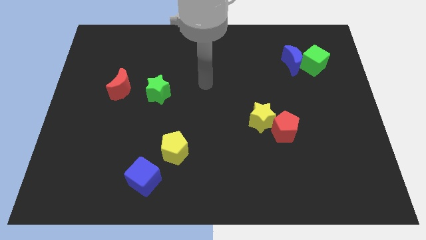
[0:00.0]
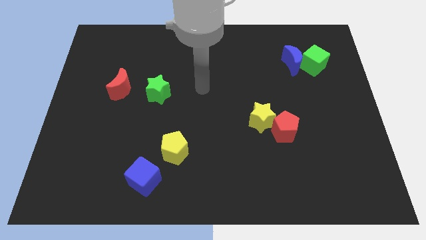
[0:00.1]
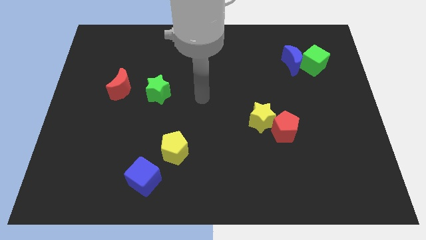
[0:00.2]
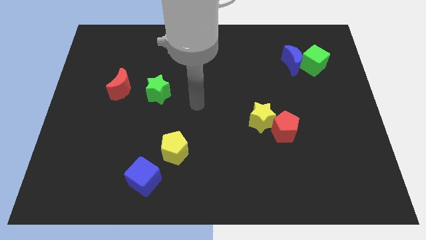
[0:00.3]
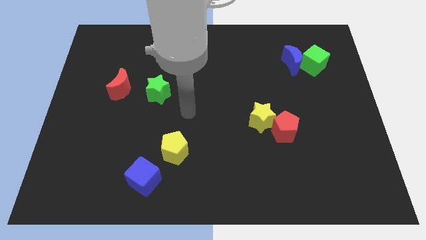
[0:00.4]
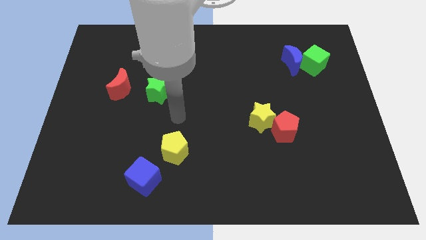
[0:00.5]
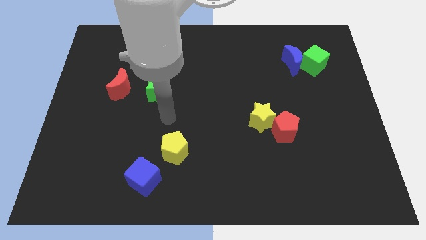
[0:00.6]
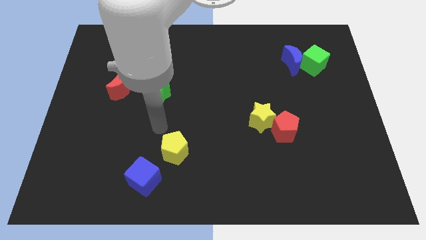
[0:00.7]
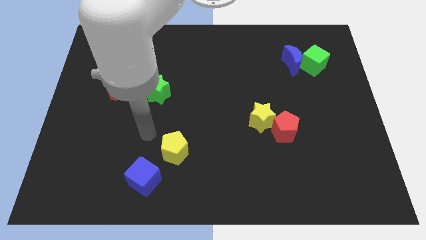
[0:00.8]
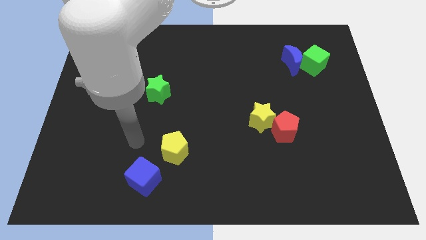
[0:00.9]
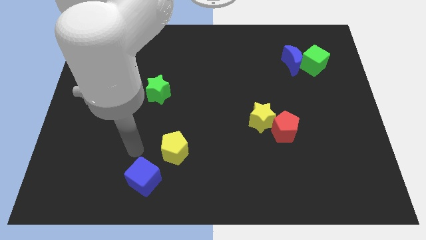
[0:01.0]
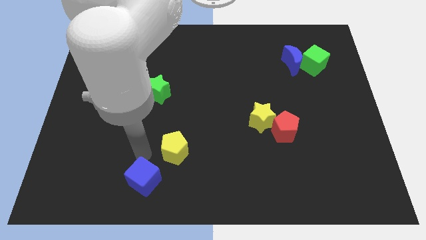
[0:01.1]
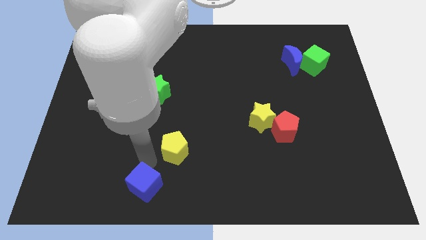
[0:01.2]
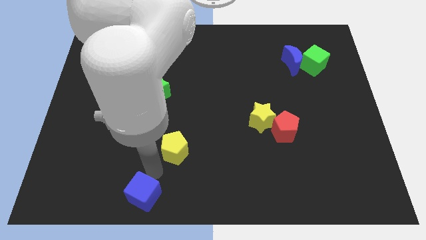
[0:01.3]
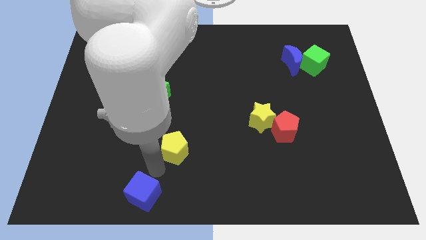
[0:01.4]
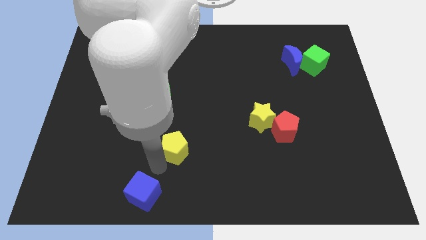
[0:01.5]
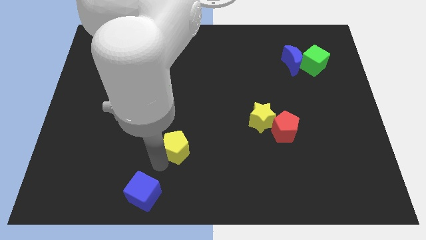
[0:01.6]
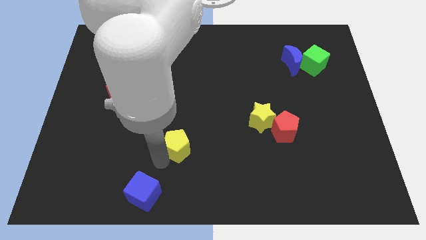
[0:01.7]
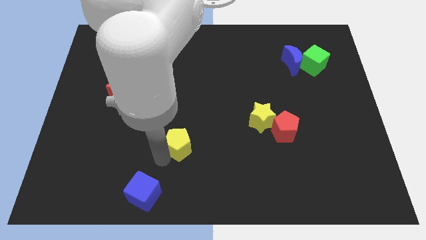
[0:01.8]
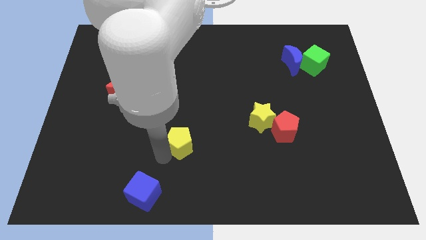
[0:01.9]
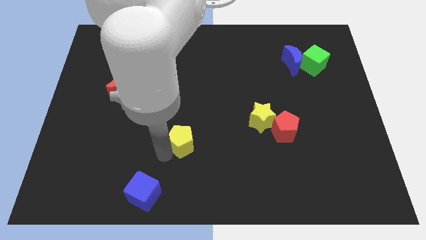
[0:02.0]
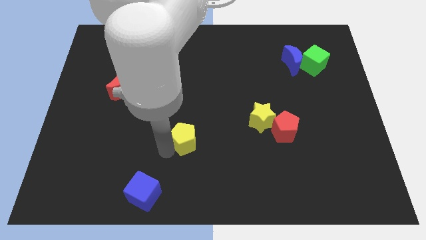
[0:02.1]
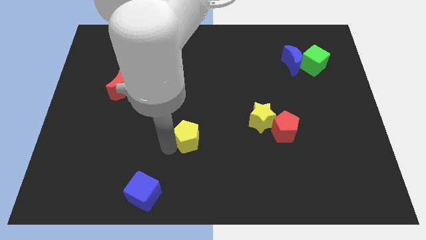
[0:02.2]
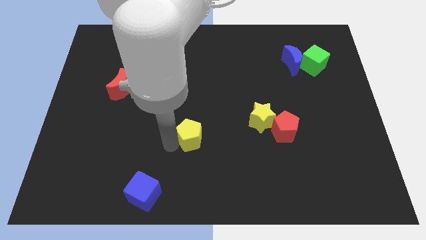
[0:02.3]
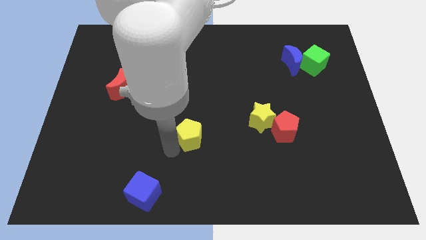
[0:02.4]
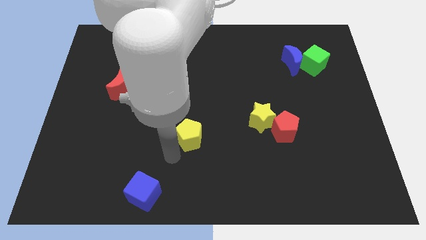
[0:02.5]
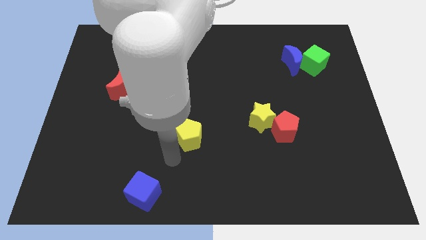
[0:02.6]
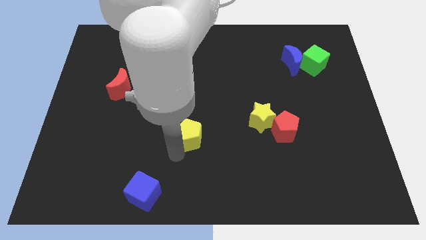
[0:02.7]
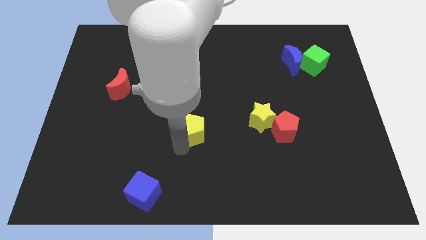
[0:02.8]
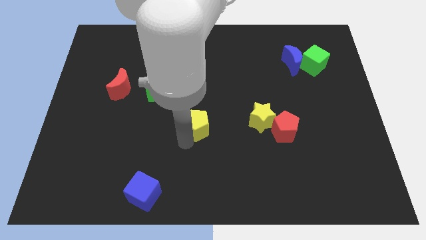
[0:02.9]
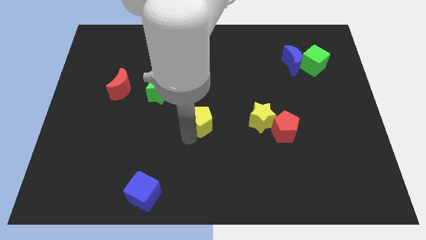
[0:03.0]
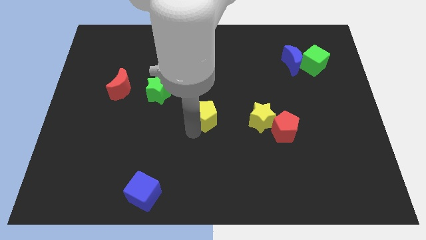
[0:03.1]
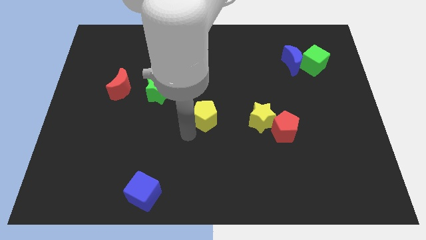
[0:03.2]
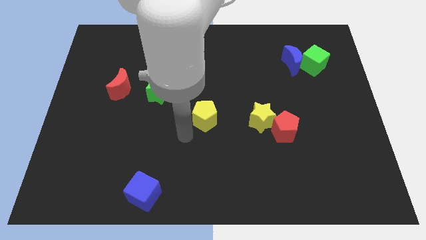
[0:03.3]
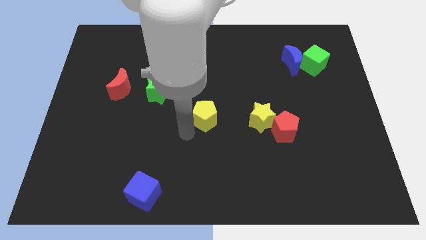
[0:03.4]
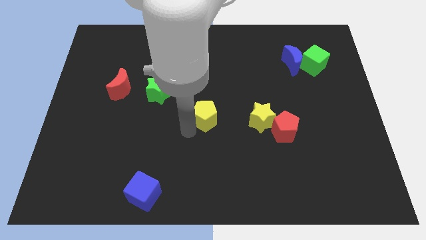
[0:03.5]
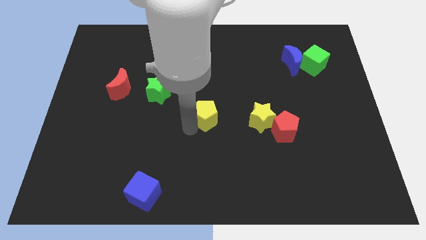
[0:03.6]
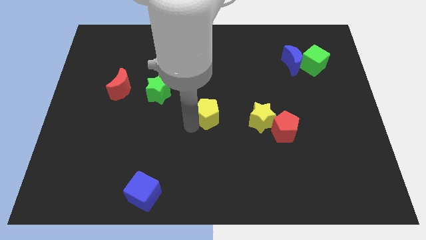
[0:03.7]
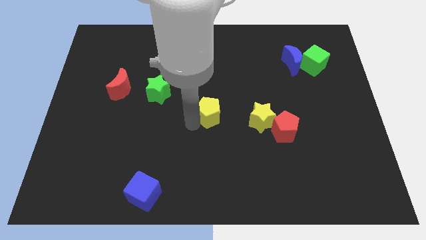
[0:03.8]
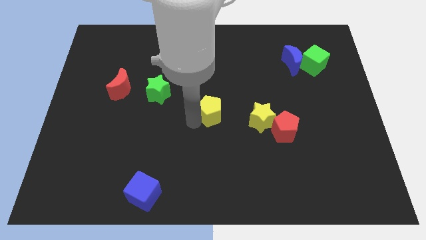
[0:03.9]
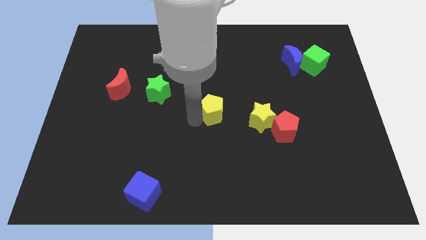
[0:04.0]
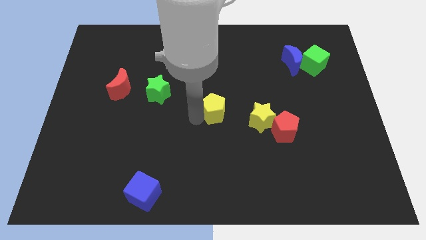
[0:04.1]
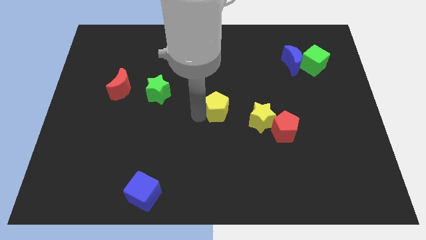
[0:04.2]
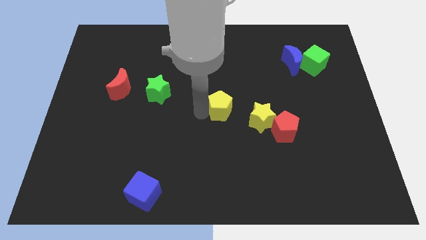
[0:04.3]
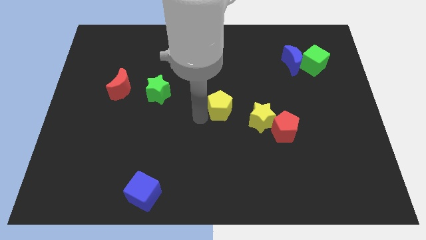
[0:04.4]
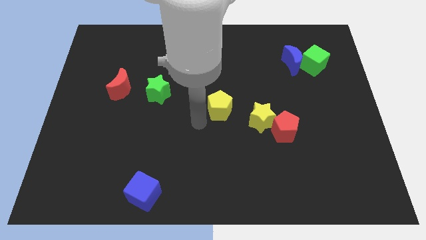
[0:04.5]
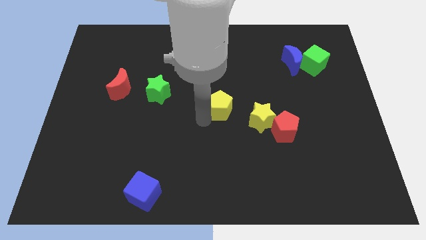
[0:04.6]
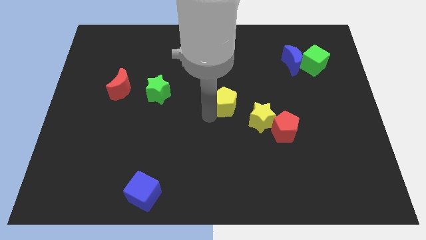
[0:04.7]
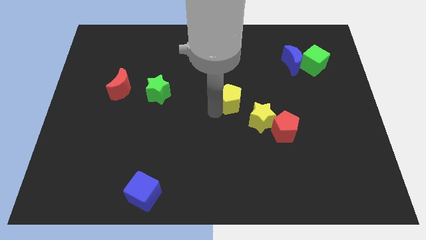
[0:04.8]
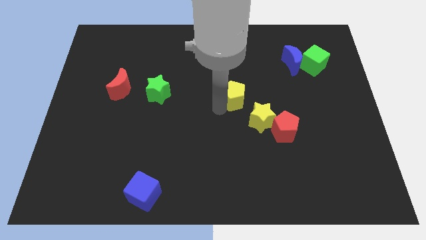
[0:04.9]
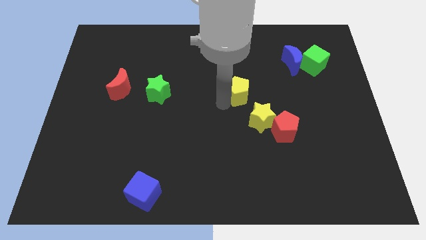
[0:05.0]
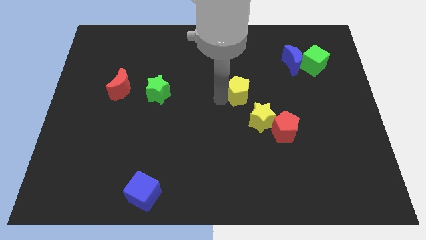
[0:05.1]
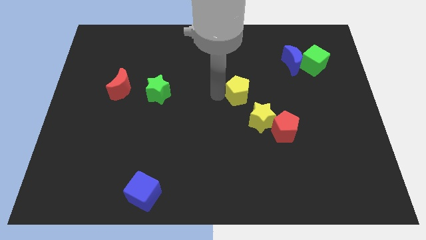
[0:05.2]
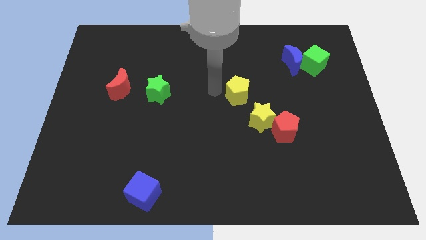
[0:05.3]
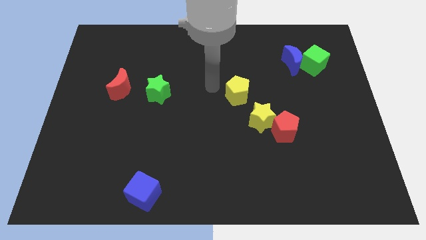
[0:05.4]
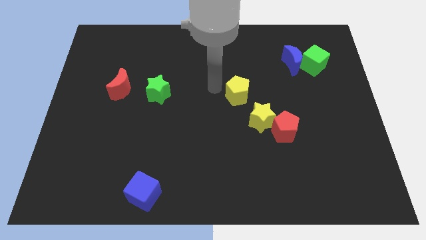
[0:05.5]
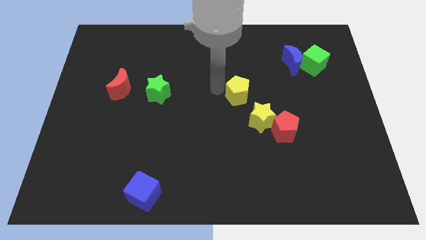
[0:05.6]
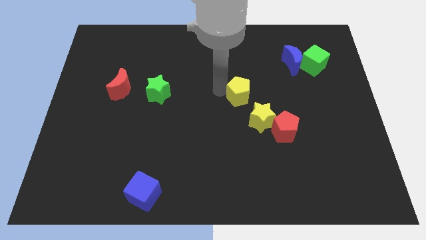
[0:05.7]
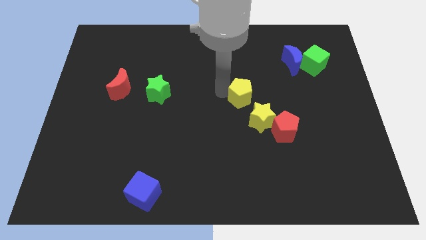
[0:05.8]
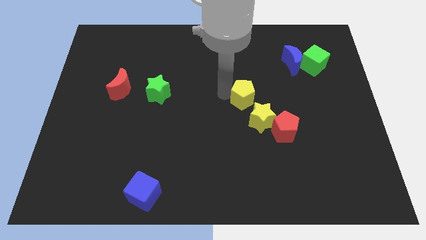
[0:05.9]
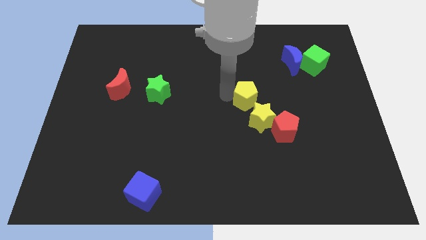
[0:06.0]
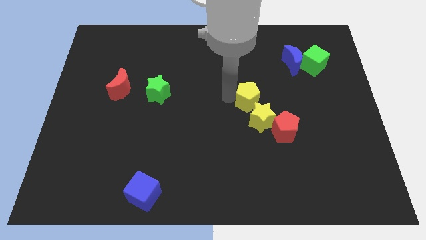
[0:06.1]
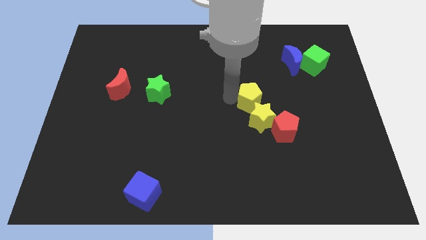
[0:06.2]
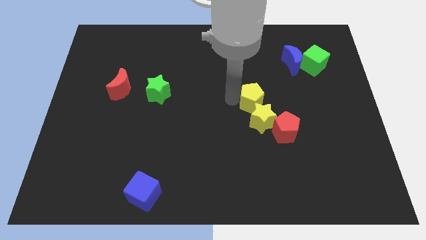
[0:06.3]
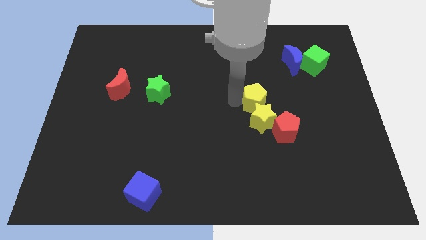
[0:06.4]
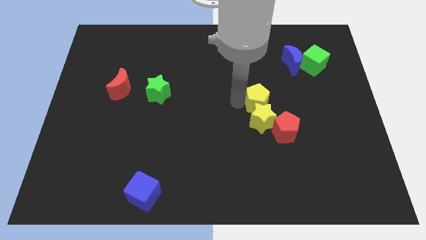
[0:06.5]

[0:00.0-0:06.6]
slide the yellow pentagon to the top right side of the yellow star
